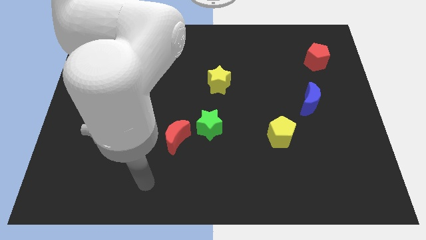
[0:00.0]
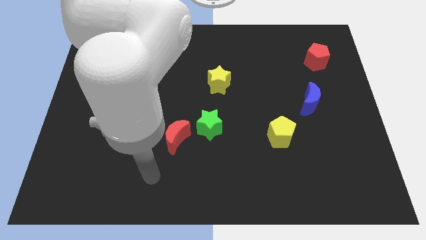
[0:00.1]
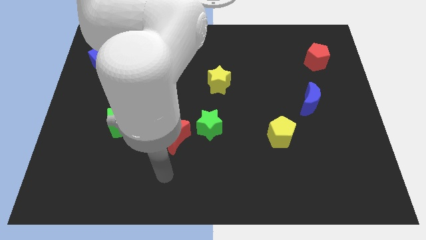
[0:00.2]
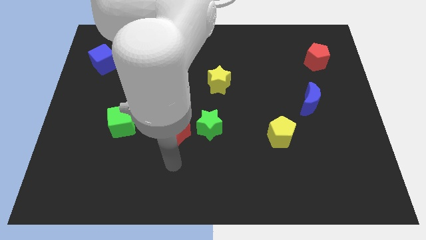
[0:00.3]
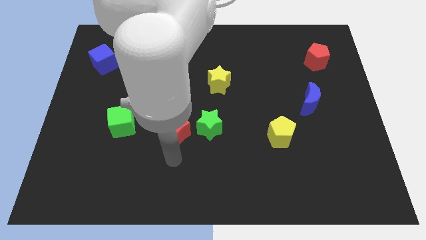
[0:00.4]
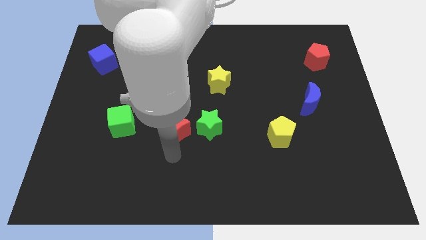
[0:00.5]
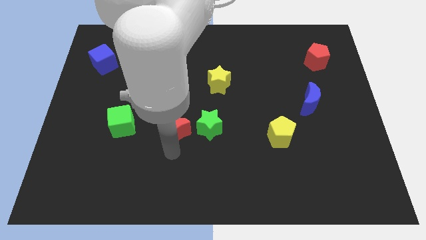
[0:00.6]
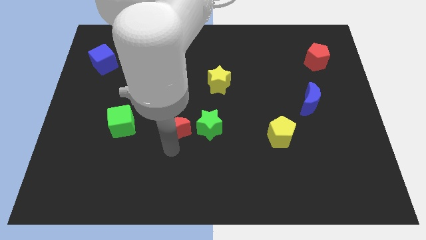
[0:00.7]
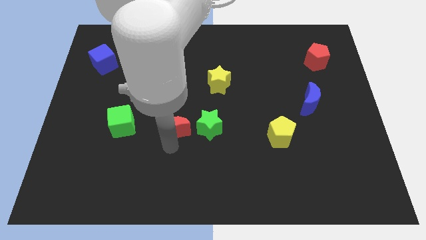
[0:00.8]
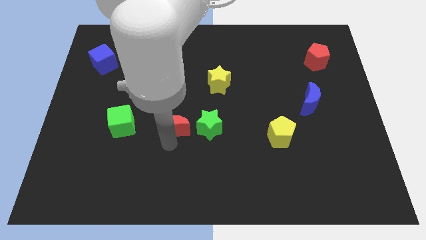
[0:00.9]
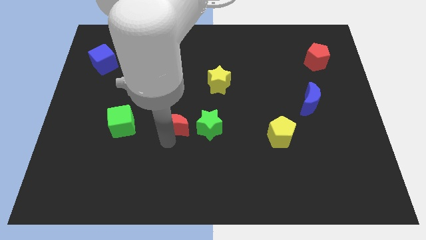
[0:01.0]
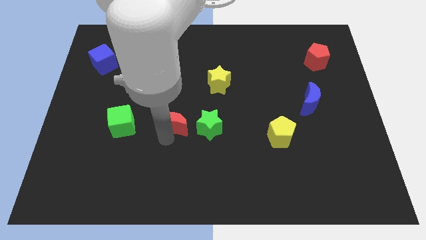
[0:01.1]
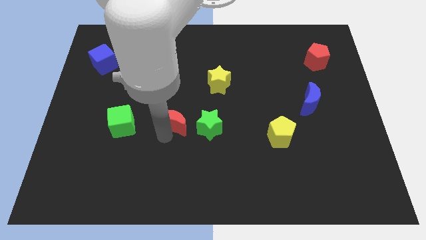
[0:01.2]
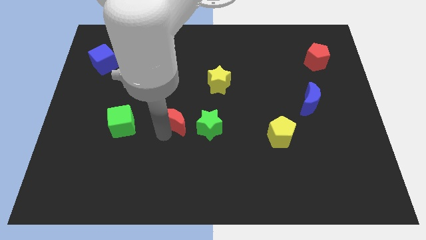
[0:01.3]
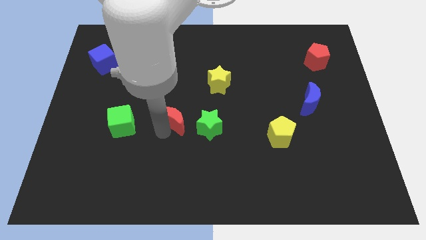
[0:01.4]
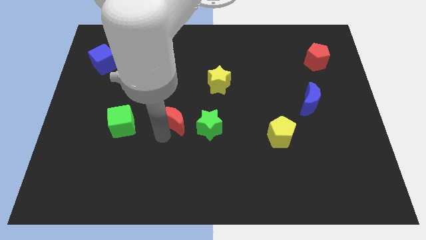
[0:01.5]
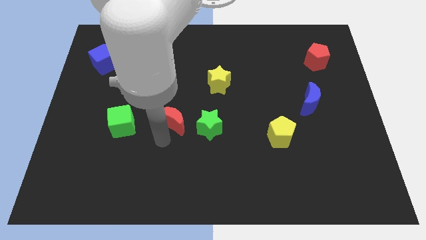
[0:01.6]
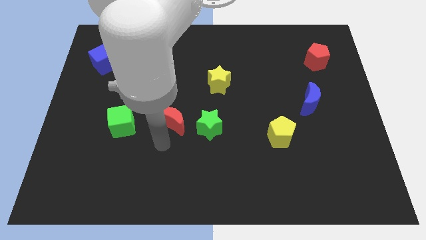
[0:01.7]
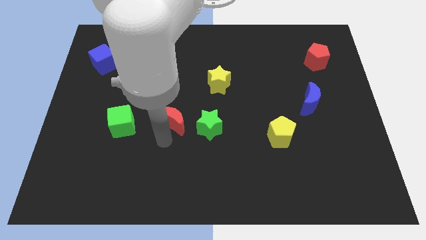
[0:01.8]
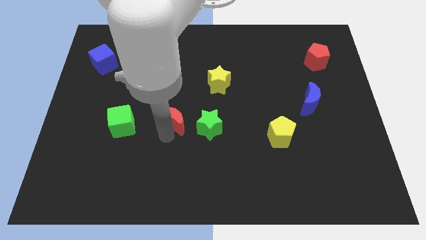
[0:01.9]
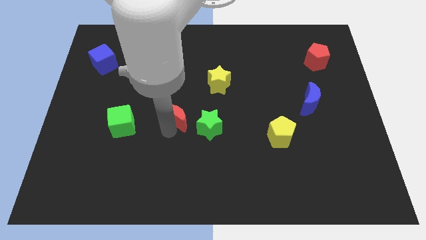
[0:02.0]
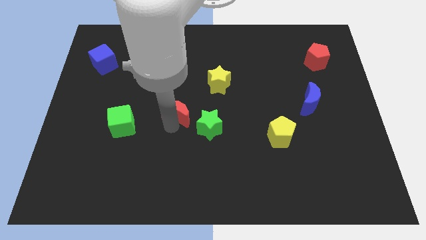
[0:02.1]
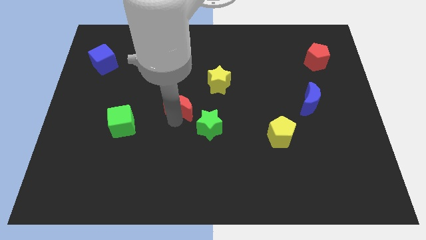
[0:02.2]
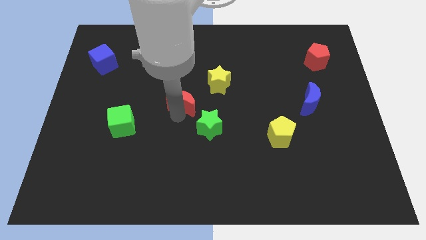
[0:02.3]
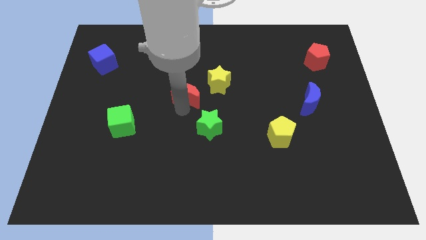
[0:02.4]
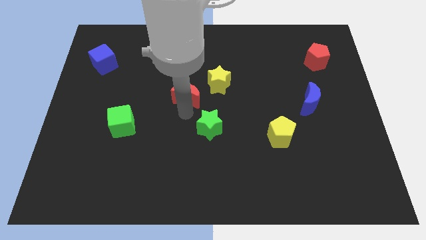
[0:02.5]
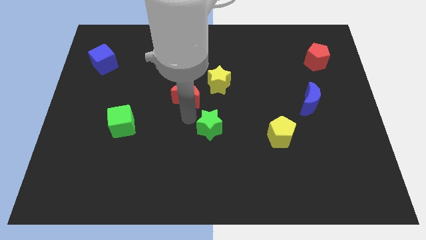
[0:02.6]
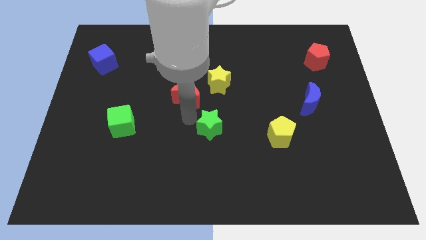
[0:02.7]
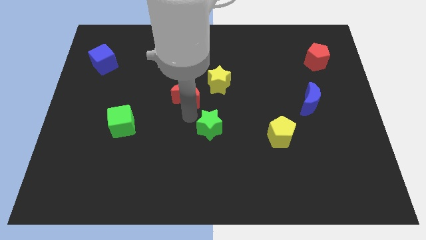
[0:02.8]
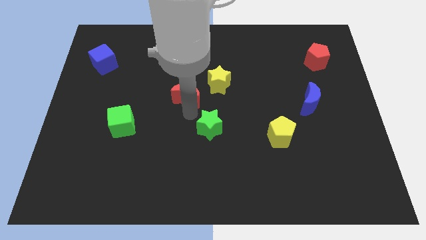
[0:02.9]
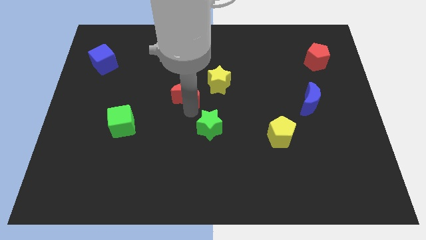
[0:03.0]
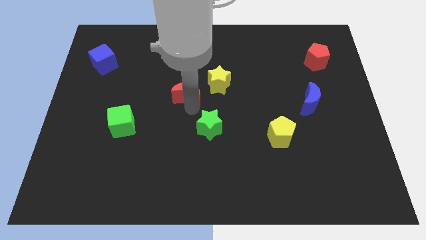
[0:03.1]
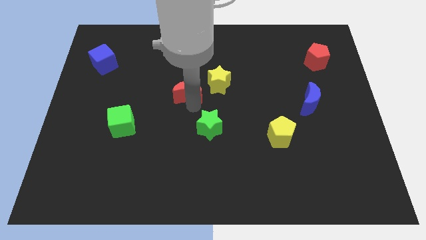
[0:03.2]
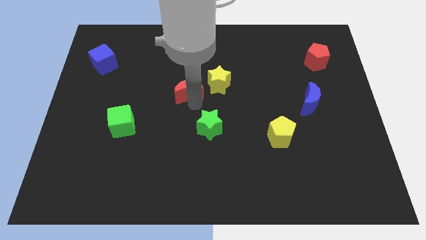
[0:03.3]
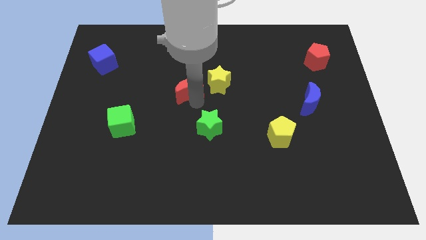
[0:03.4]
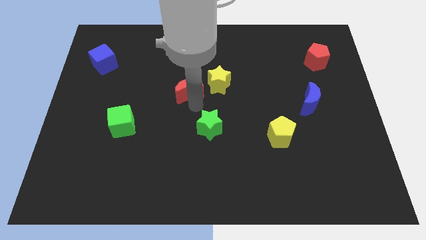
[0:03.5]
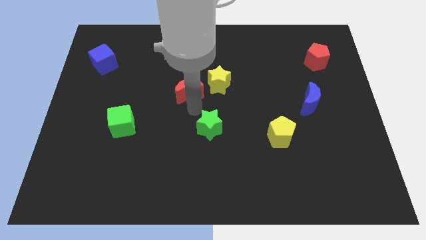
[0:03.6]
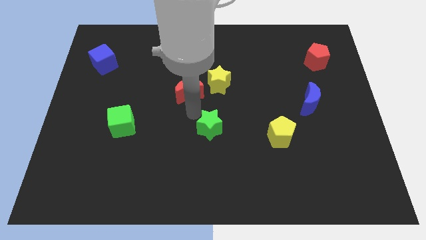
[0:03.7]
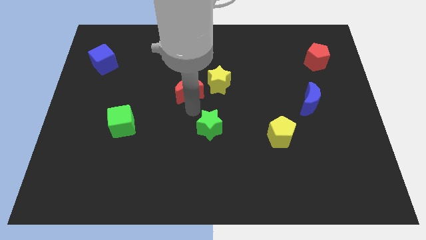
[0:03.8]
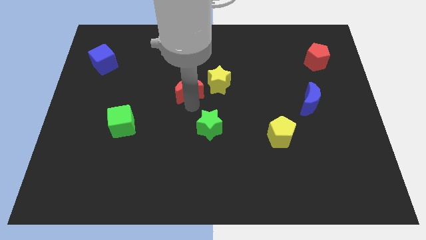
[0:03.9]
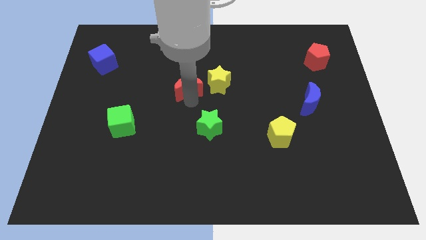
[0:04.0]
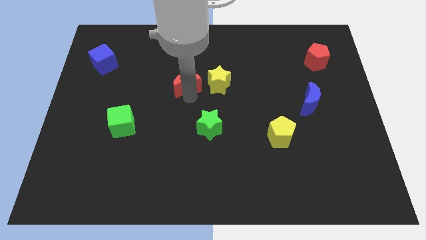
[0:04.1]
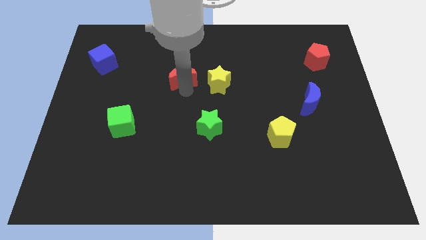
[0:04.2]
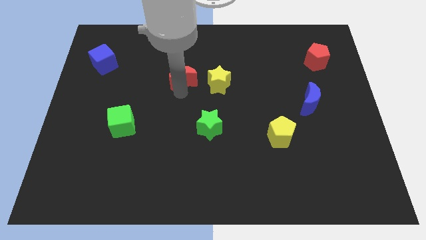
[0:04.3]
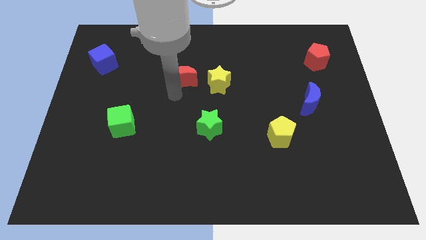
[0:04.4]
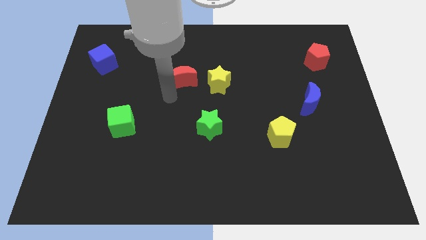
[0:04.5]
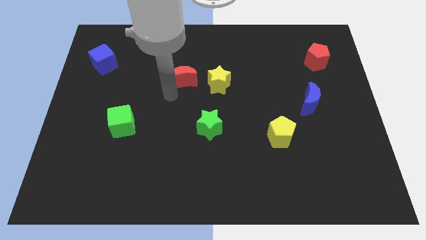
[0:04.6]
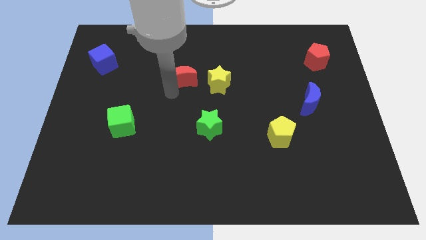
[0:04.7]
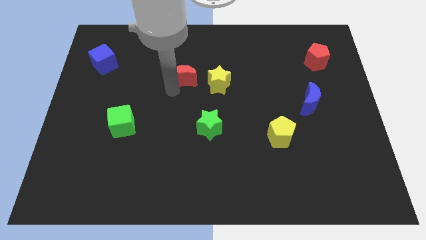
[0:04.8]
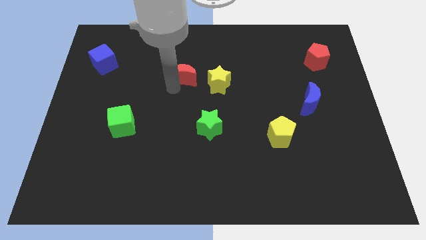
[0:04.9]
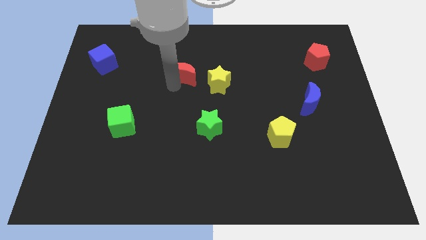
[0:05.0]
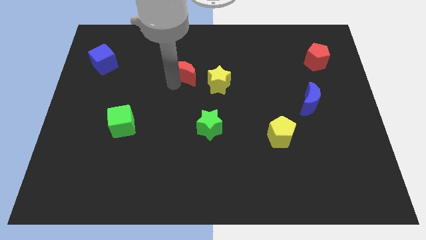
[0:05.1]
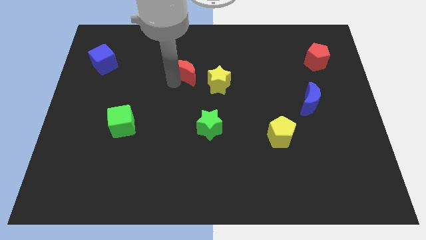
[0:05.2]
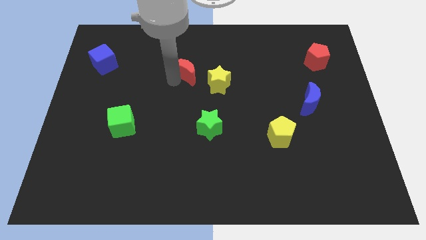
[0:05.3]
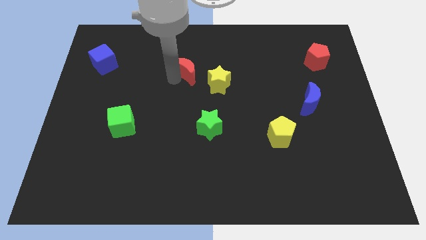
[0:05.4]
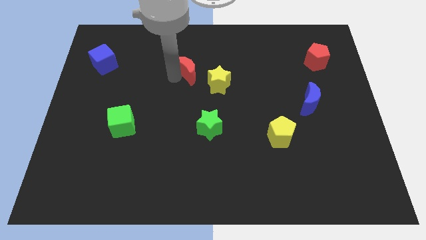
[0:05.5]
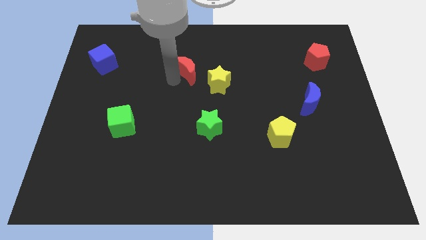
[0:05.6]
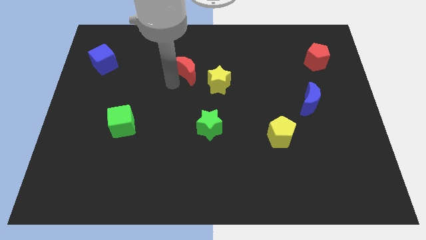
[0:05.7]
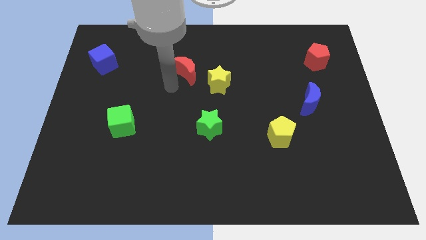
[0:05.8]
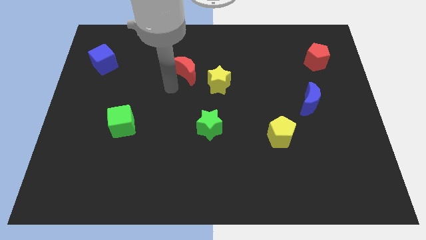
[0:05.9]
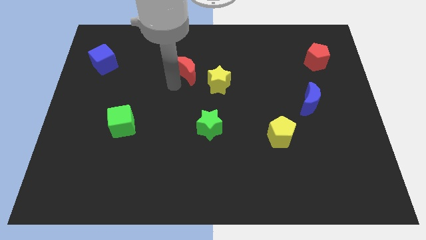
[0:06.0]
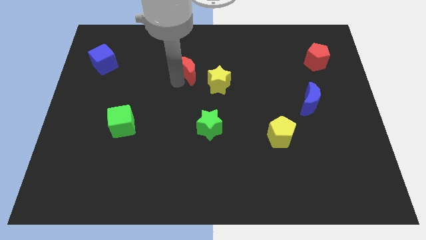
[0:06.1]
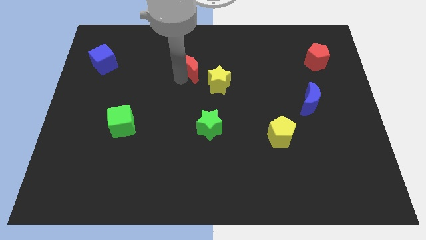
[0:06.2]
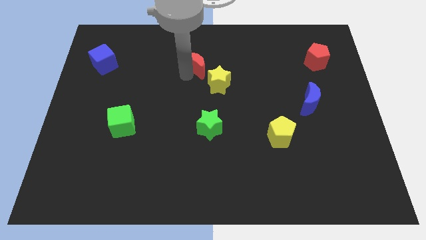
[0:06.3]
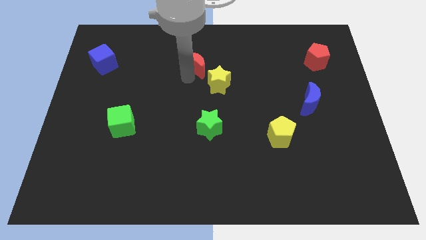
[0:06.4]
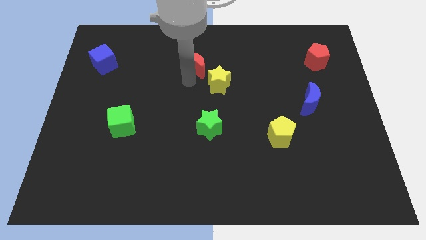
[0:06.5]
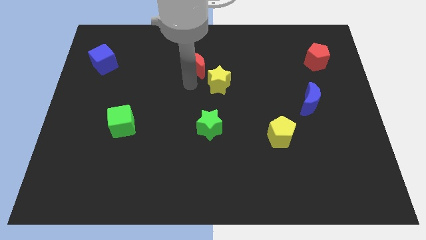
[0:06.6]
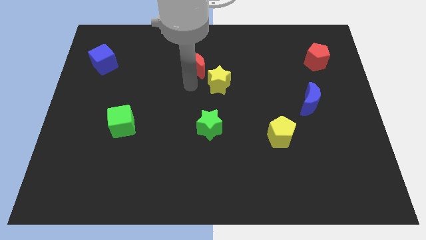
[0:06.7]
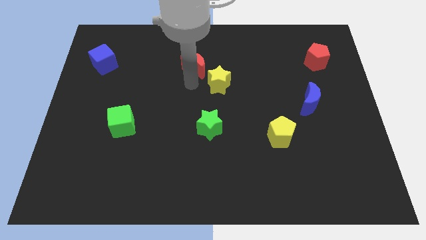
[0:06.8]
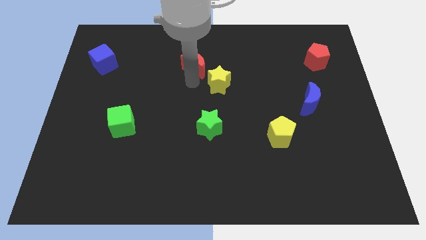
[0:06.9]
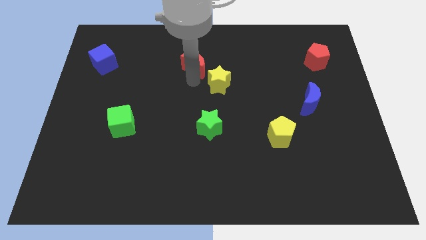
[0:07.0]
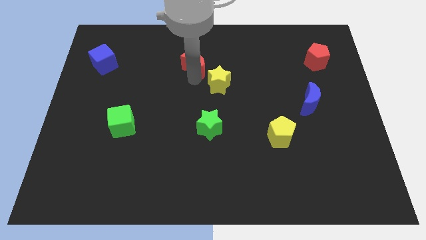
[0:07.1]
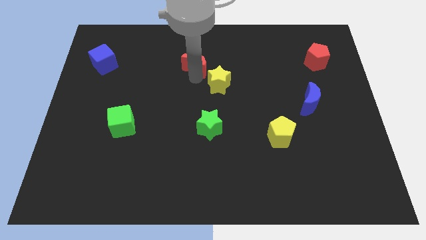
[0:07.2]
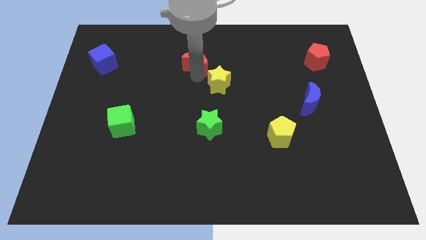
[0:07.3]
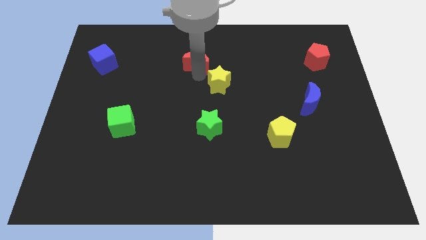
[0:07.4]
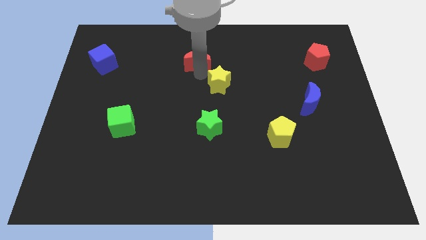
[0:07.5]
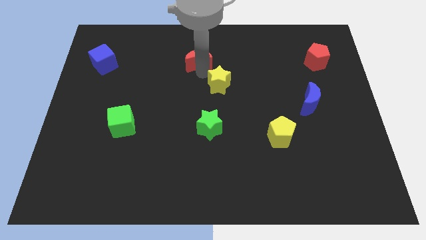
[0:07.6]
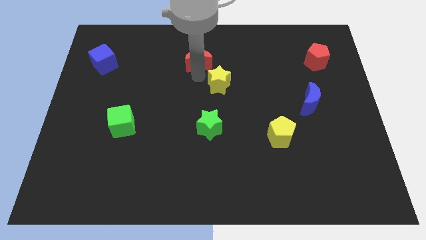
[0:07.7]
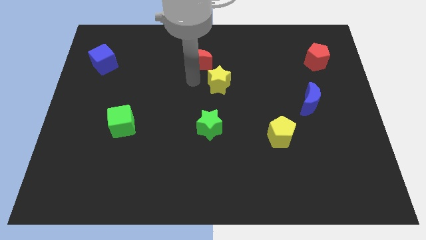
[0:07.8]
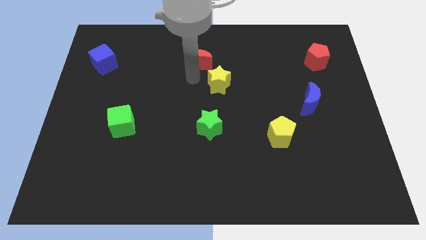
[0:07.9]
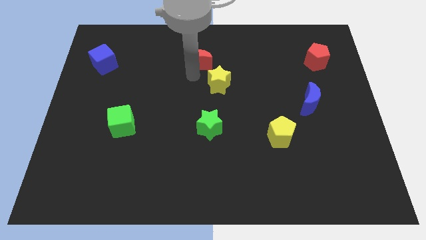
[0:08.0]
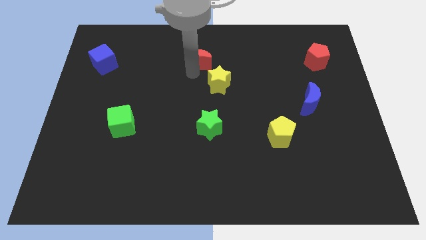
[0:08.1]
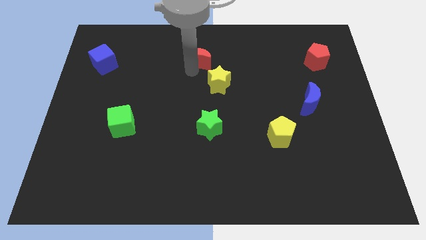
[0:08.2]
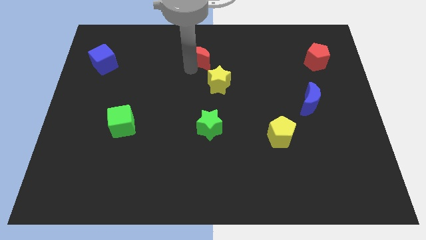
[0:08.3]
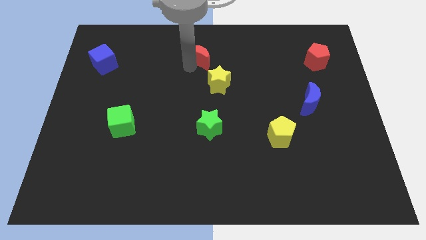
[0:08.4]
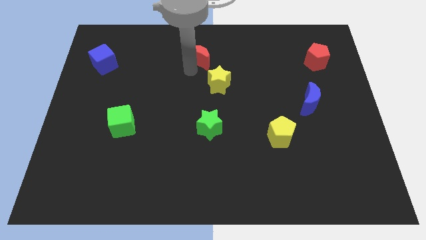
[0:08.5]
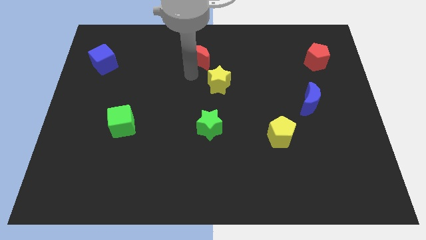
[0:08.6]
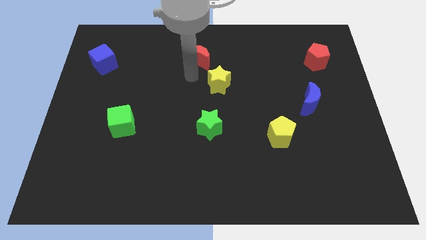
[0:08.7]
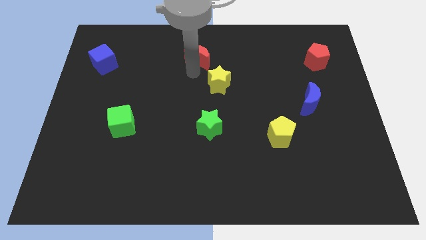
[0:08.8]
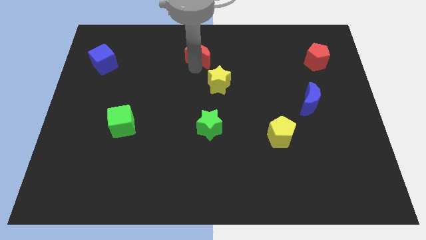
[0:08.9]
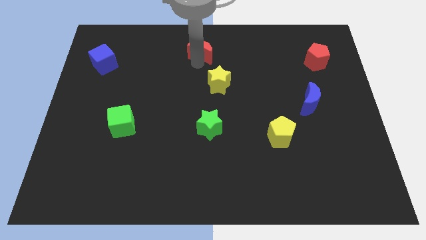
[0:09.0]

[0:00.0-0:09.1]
push the red moon to the top side
